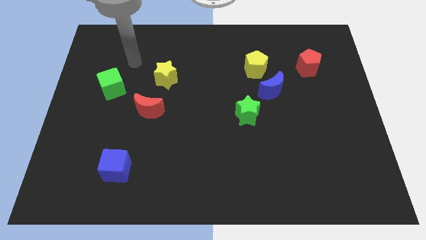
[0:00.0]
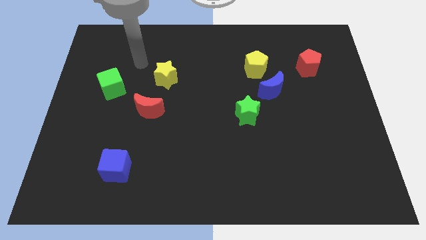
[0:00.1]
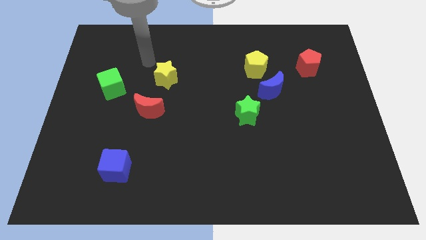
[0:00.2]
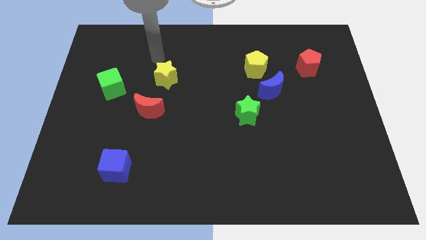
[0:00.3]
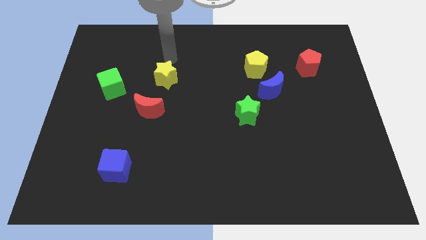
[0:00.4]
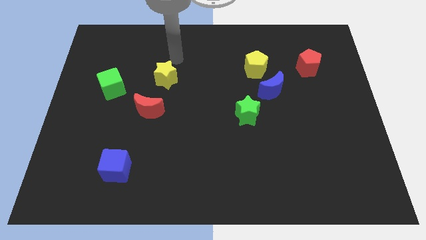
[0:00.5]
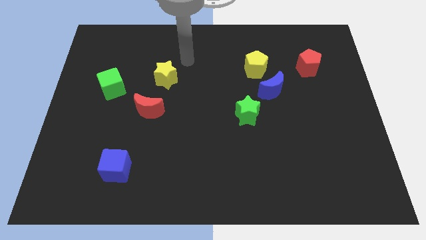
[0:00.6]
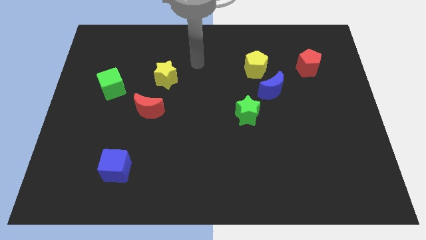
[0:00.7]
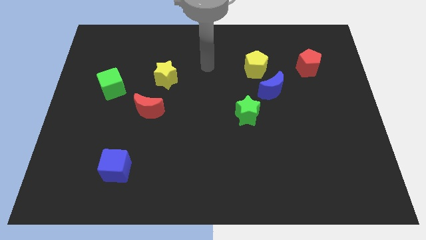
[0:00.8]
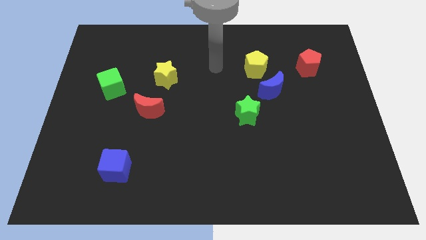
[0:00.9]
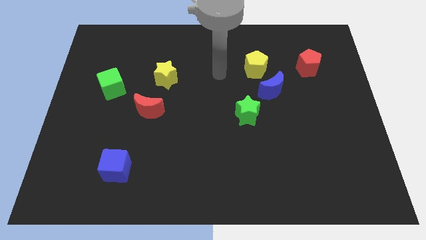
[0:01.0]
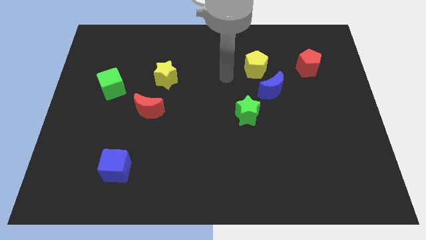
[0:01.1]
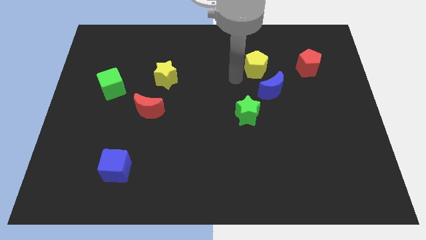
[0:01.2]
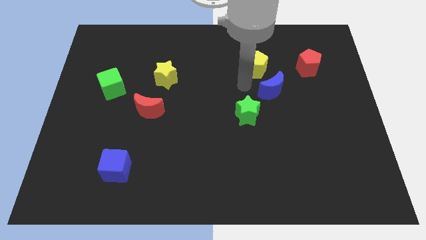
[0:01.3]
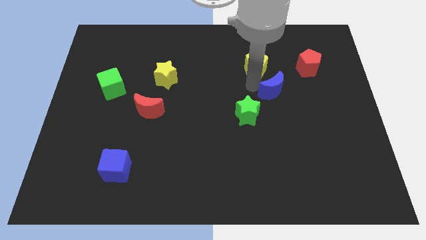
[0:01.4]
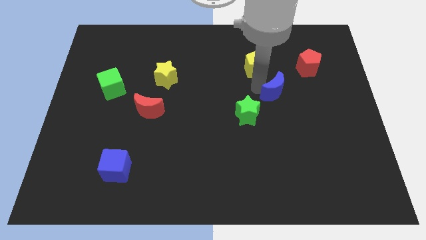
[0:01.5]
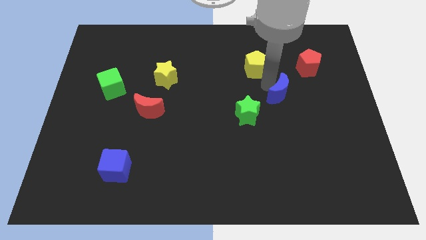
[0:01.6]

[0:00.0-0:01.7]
move the yellow pentagon away from the blue moon

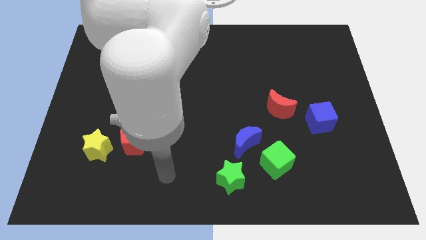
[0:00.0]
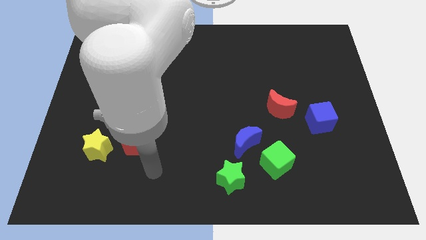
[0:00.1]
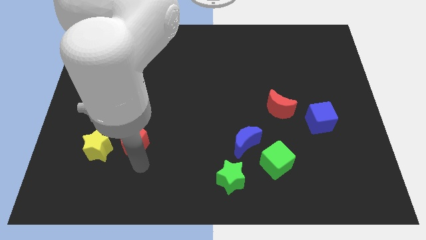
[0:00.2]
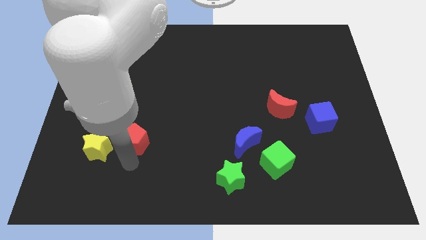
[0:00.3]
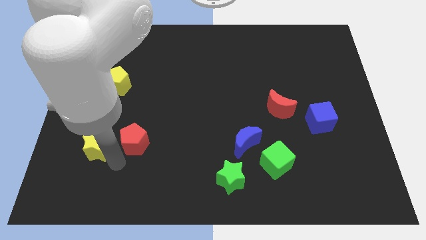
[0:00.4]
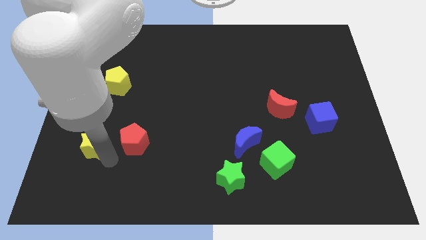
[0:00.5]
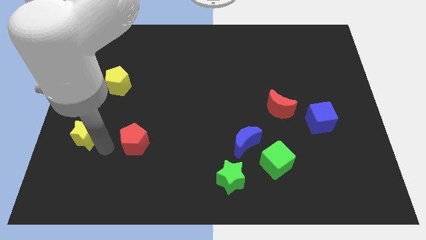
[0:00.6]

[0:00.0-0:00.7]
pull the red pentagon apart from the yellow star

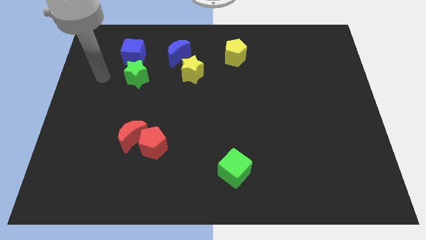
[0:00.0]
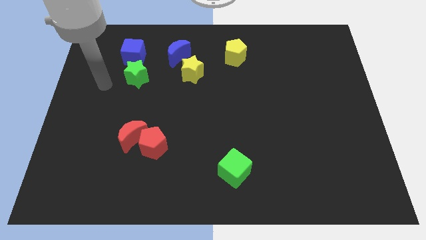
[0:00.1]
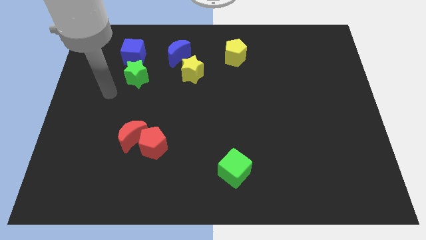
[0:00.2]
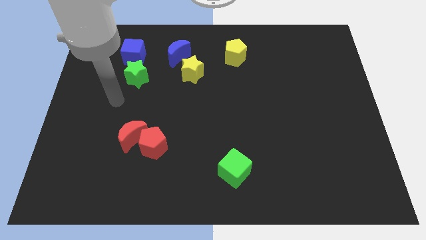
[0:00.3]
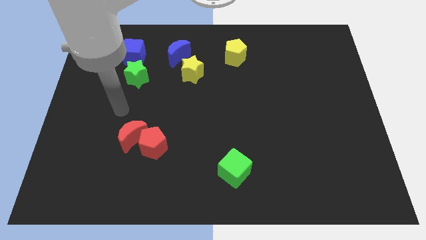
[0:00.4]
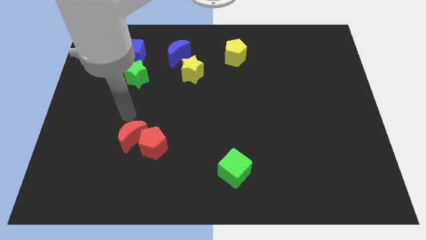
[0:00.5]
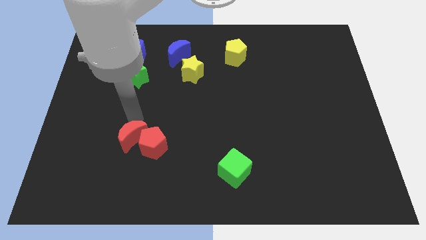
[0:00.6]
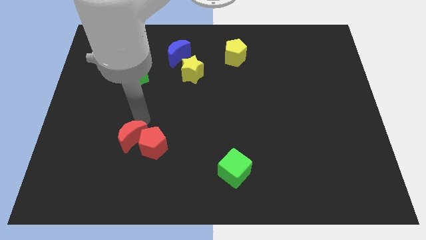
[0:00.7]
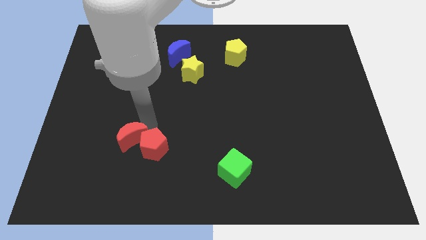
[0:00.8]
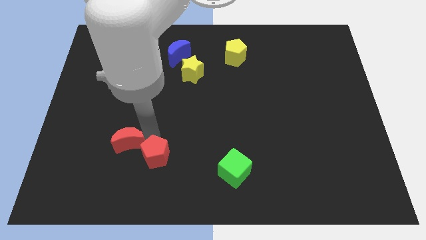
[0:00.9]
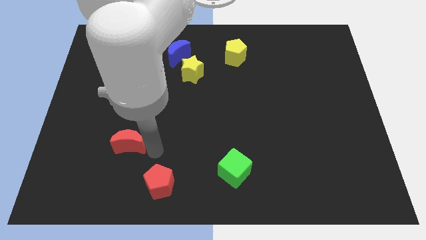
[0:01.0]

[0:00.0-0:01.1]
separate the red moon from the red pentagon

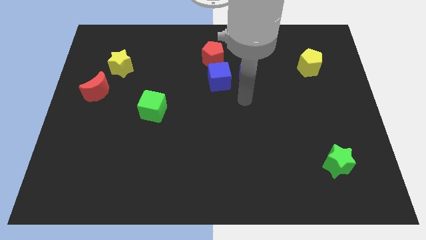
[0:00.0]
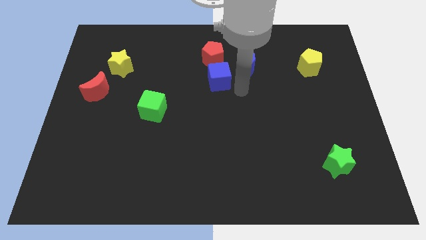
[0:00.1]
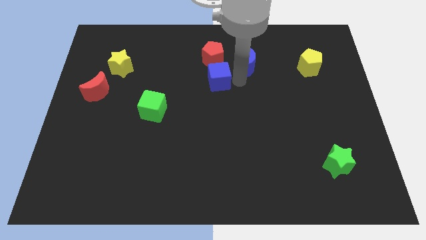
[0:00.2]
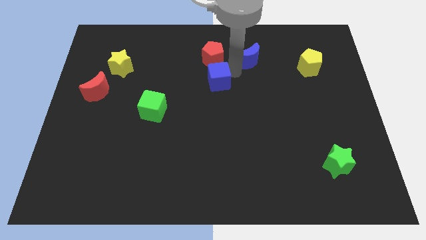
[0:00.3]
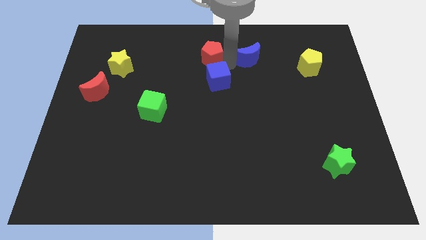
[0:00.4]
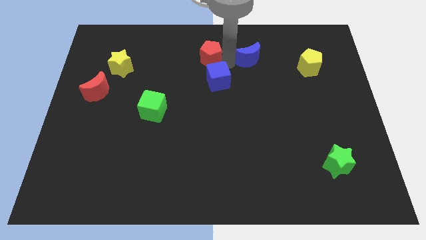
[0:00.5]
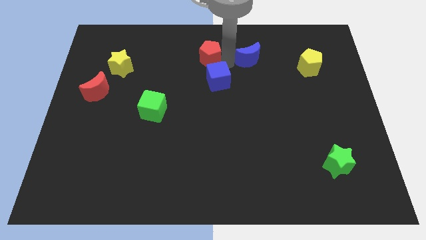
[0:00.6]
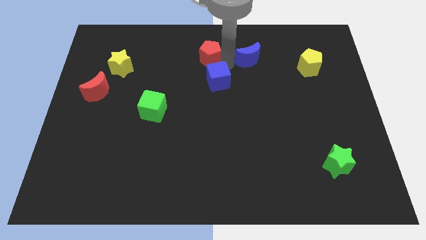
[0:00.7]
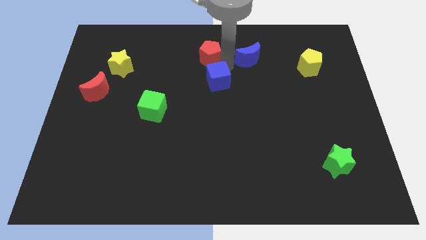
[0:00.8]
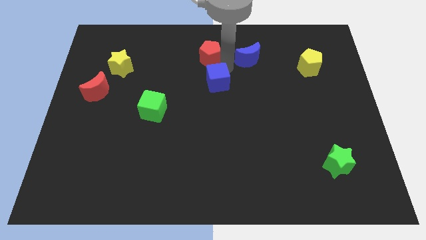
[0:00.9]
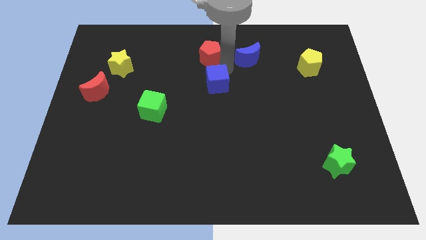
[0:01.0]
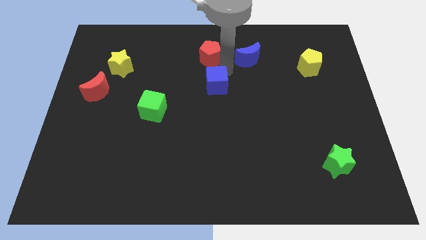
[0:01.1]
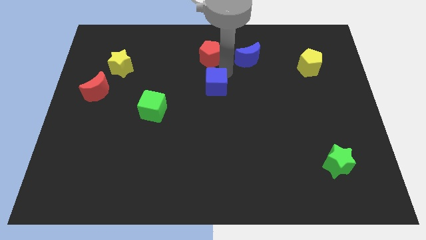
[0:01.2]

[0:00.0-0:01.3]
pull the blue cube apart from the red pentagon and blue moon

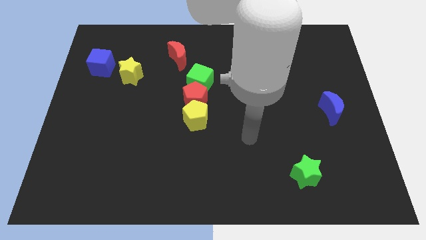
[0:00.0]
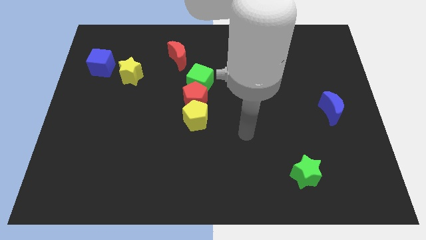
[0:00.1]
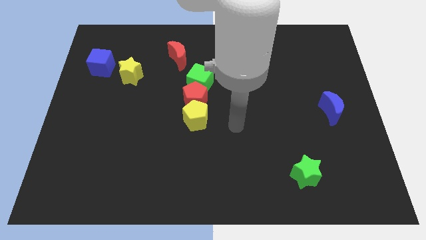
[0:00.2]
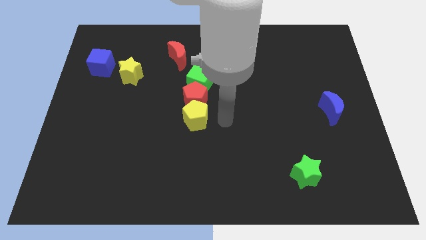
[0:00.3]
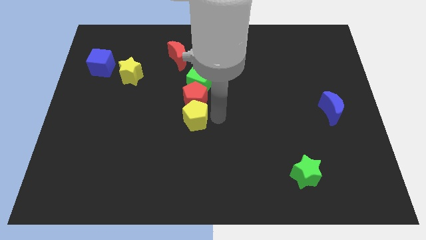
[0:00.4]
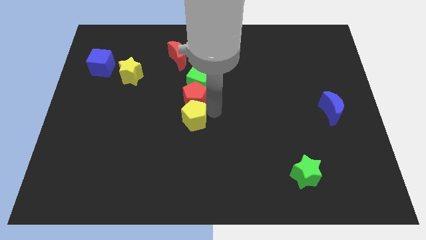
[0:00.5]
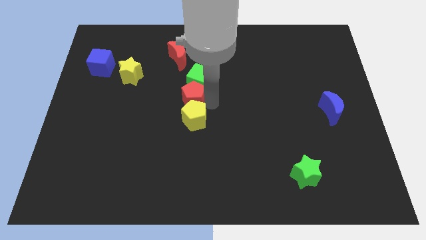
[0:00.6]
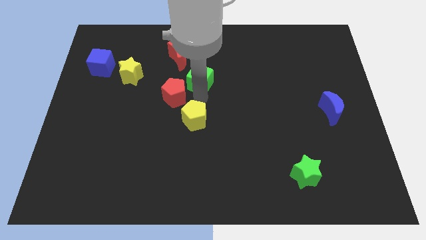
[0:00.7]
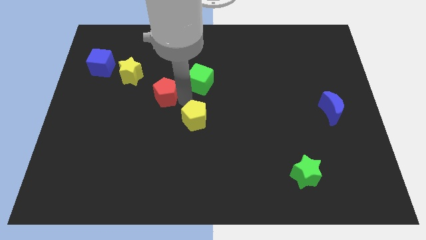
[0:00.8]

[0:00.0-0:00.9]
separate the yellow pentagon from the red pentagon

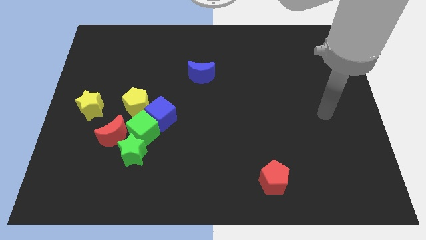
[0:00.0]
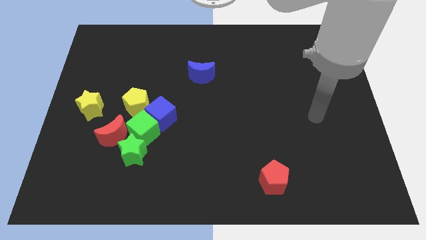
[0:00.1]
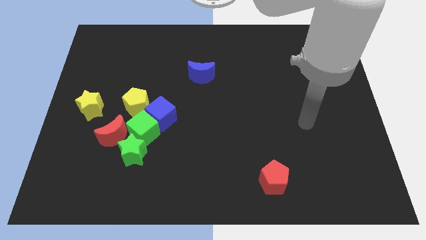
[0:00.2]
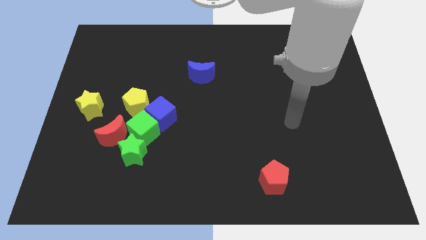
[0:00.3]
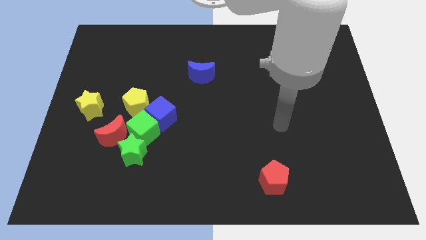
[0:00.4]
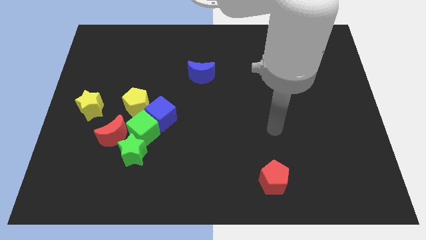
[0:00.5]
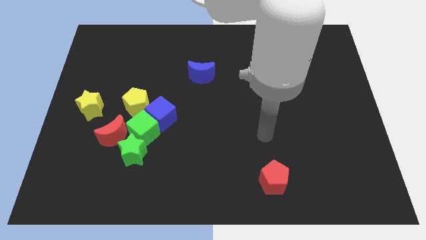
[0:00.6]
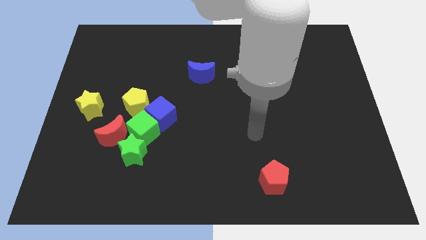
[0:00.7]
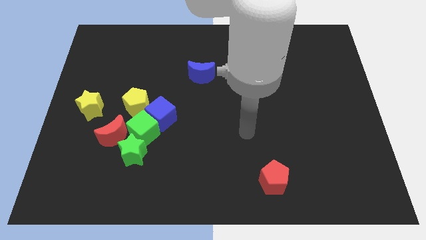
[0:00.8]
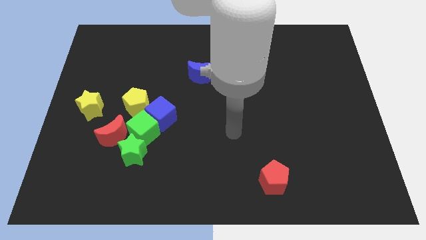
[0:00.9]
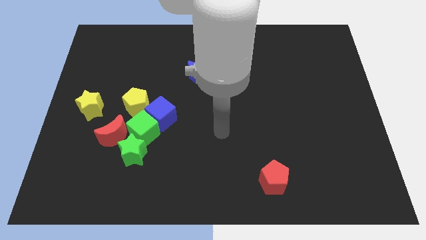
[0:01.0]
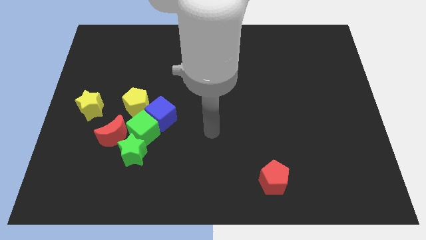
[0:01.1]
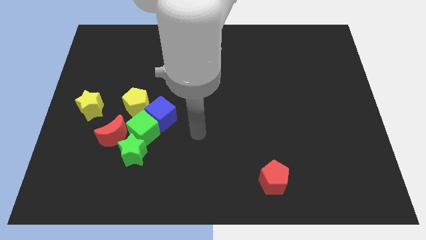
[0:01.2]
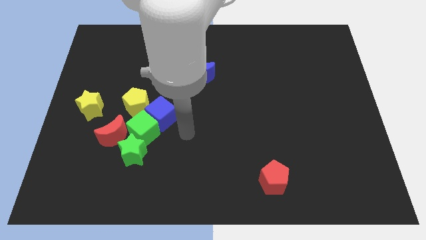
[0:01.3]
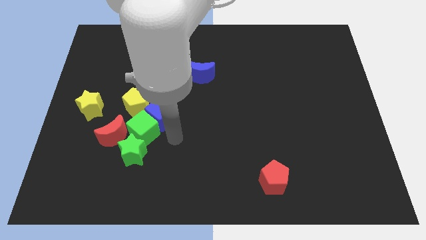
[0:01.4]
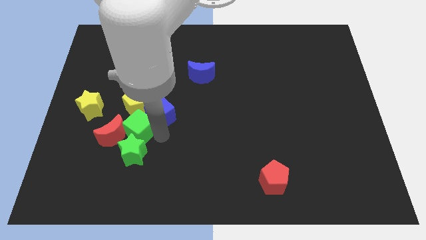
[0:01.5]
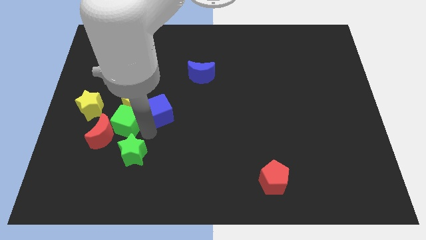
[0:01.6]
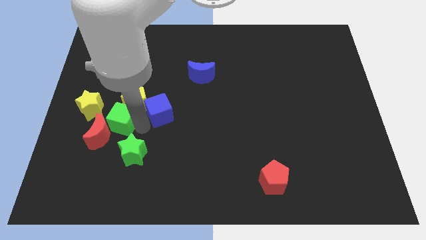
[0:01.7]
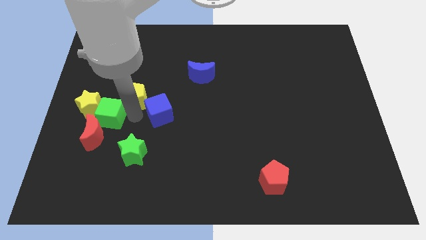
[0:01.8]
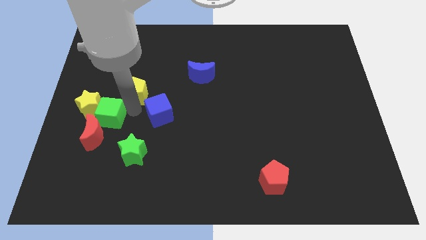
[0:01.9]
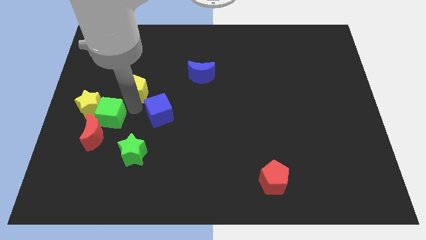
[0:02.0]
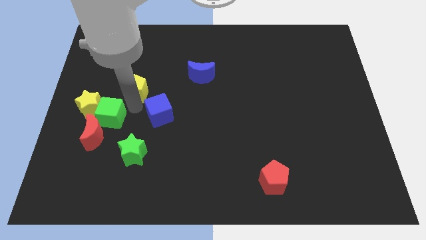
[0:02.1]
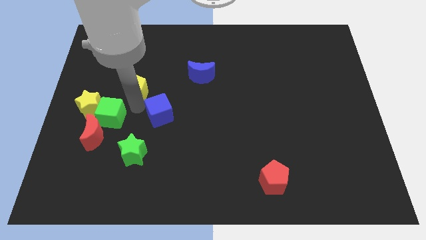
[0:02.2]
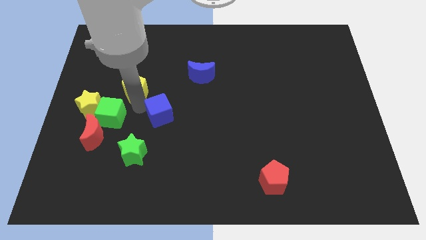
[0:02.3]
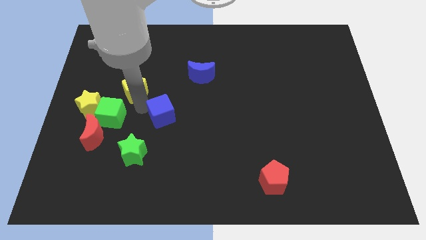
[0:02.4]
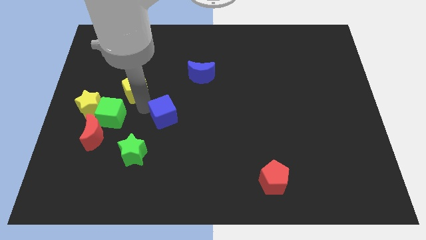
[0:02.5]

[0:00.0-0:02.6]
separate the blue cube from the green cube and yellow pentagon

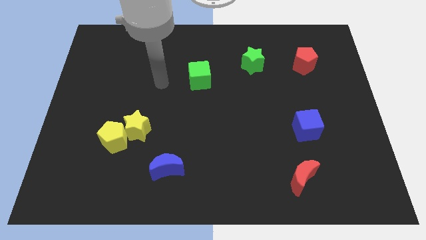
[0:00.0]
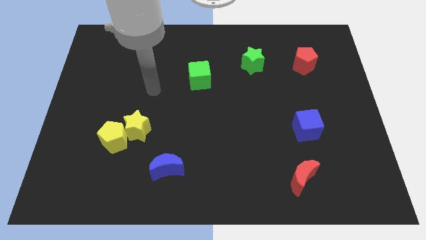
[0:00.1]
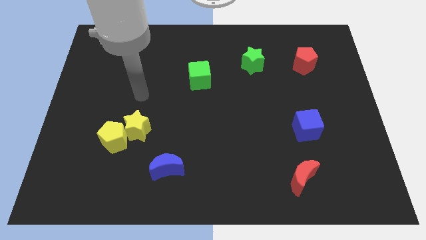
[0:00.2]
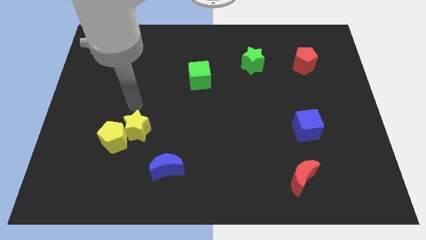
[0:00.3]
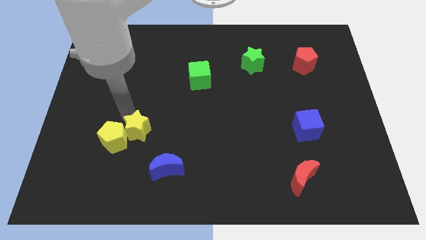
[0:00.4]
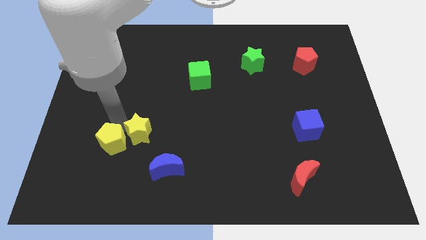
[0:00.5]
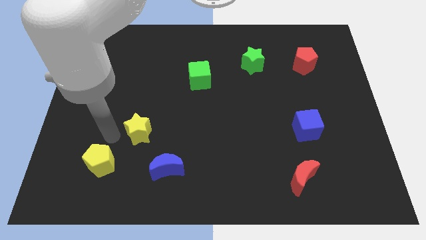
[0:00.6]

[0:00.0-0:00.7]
move the yellow star away from the yellow pentagon

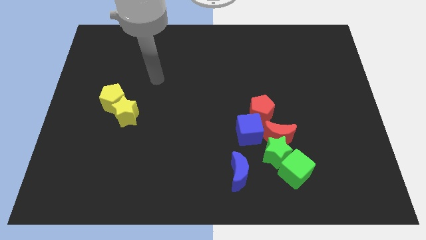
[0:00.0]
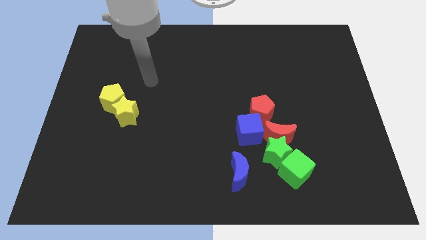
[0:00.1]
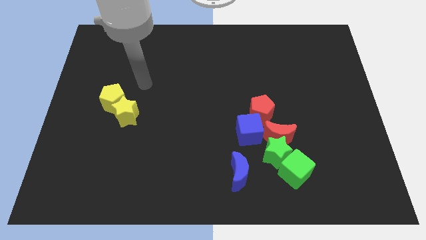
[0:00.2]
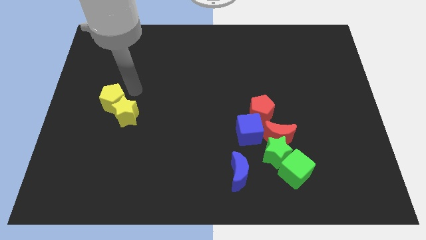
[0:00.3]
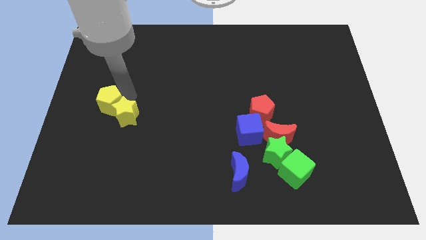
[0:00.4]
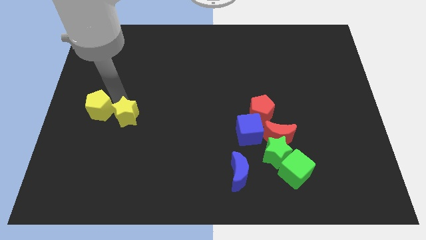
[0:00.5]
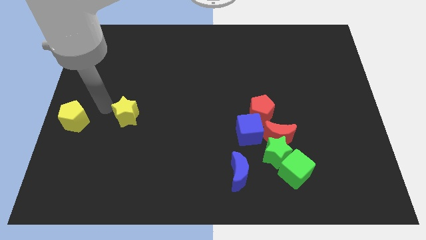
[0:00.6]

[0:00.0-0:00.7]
pull the yellow star apart from the yellow pentagon
